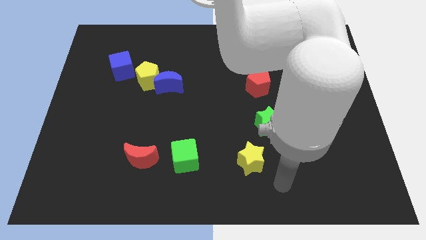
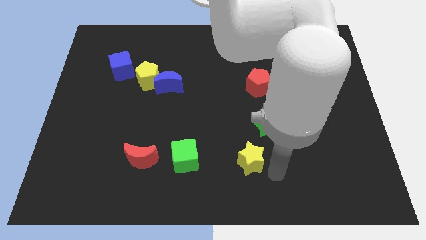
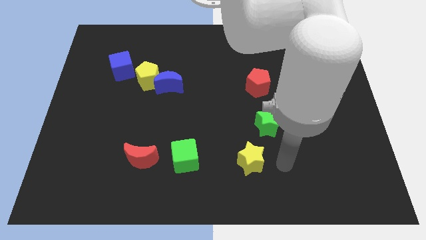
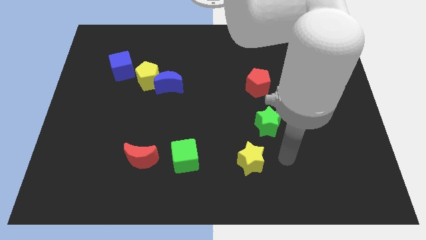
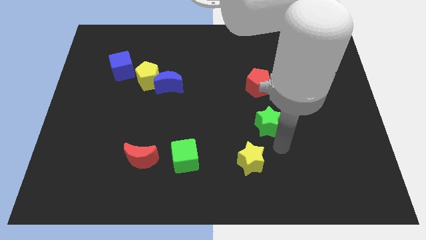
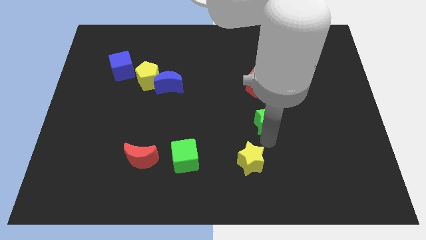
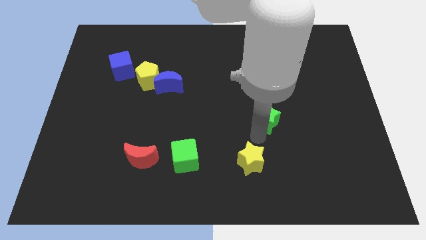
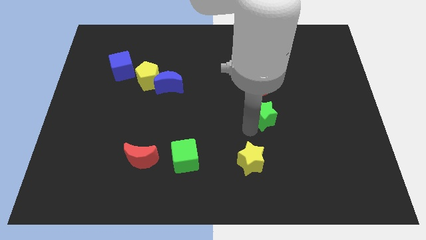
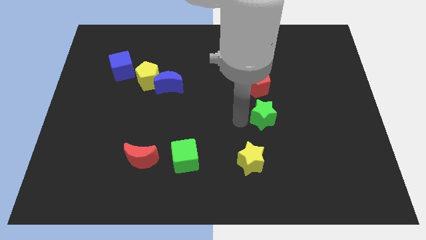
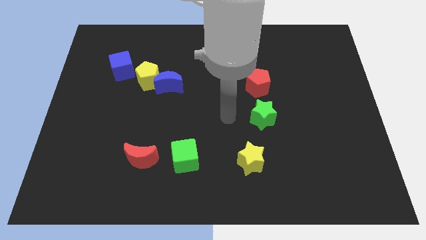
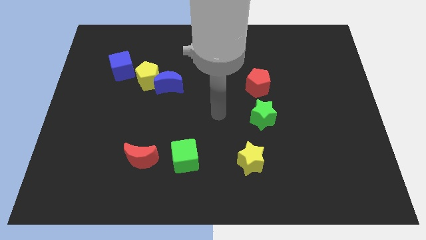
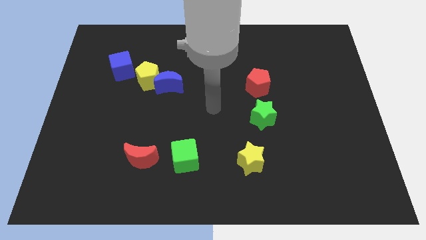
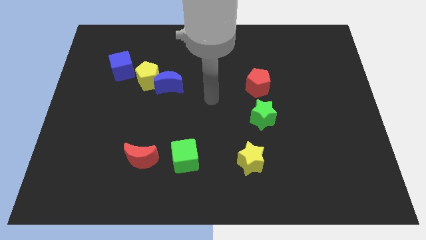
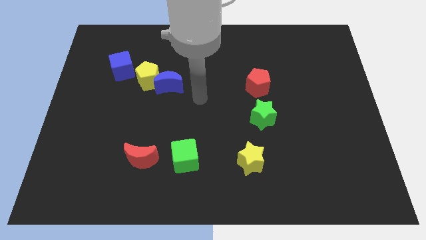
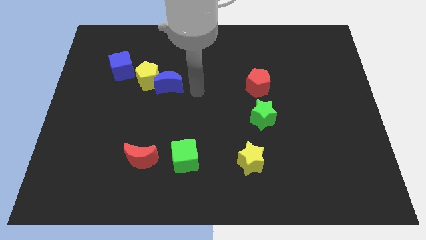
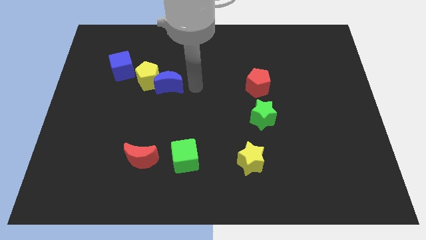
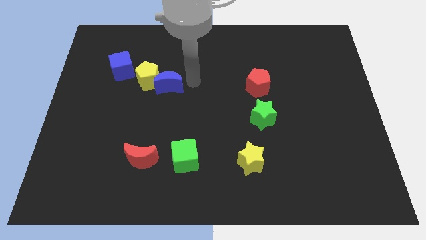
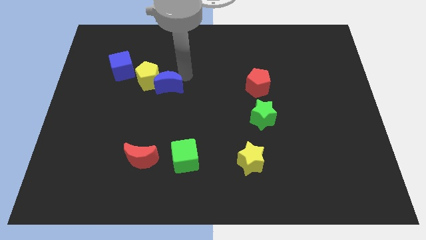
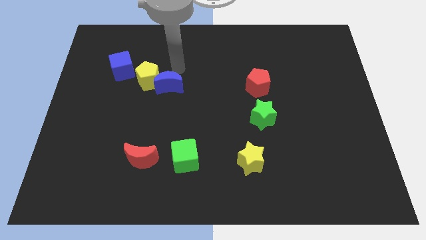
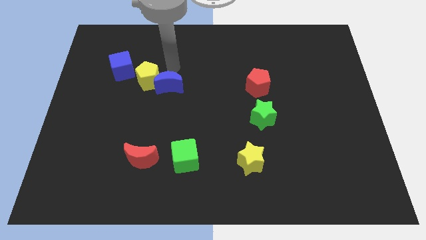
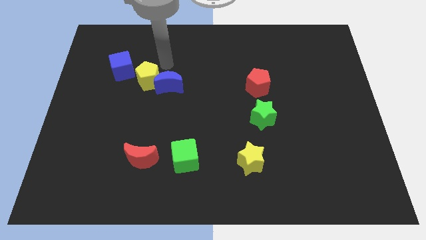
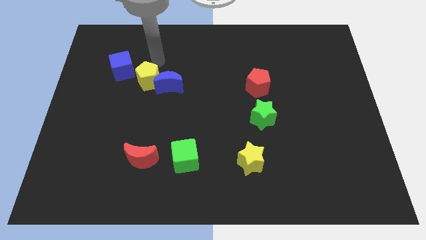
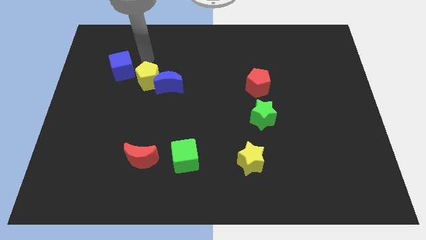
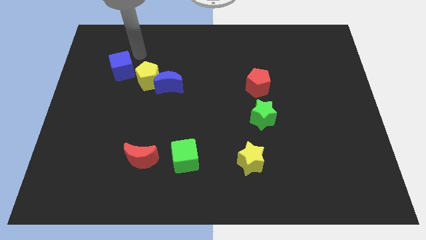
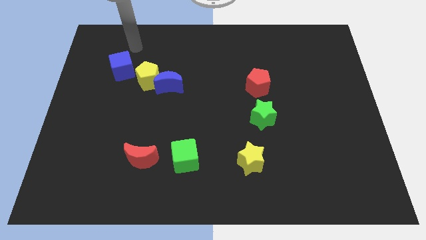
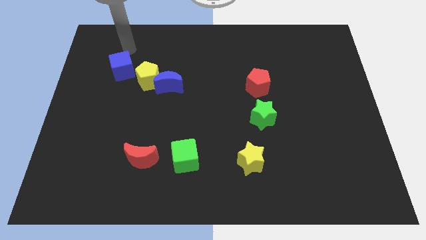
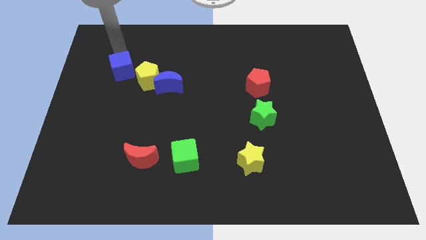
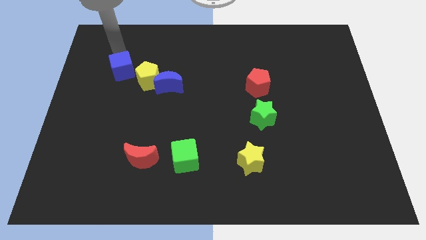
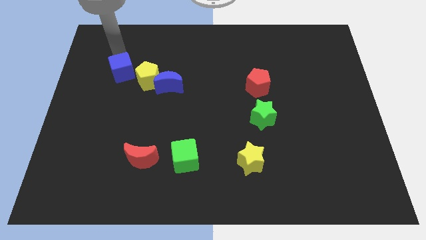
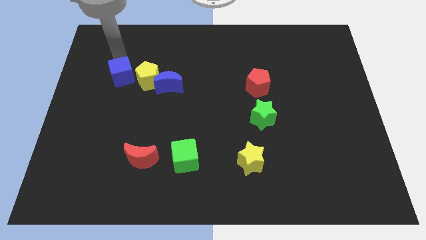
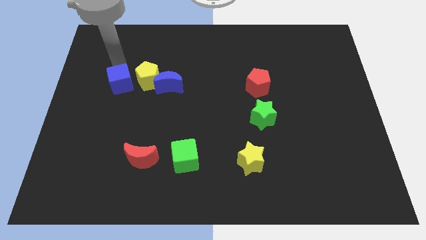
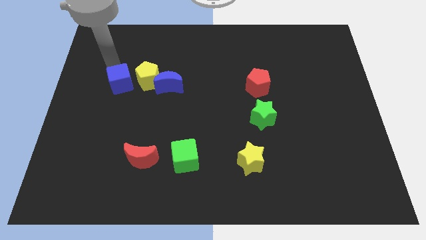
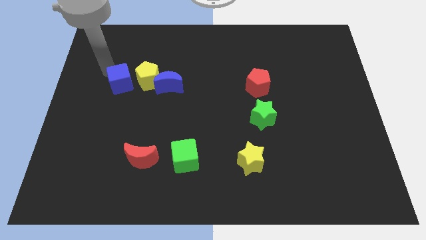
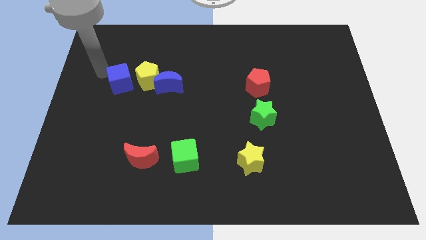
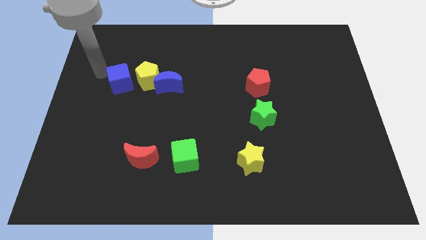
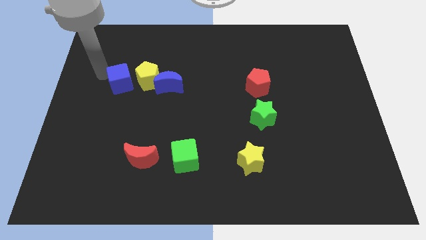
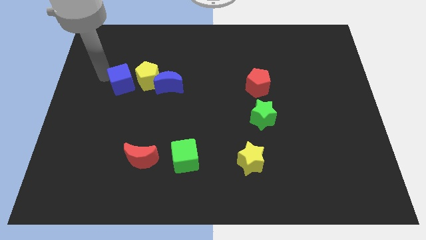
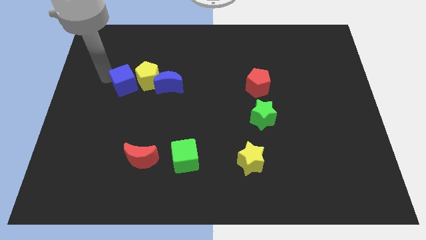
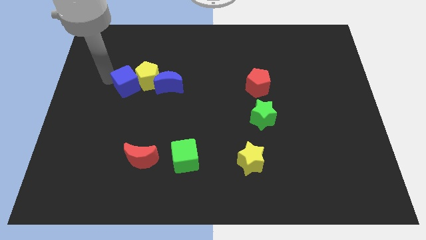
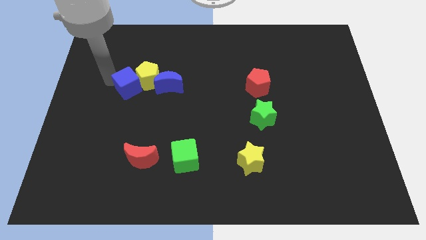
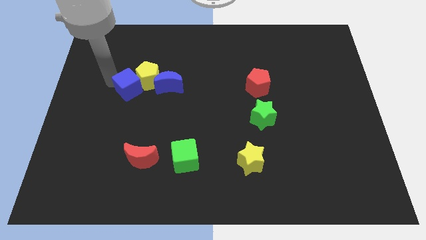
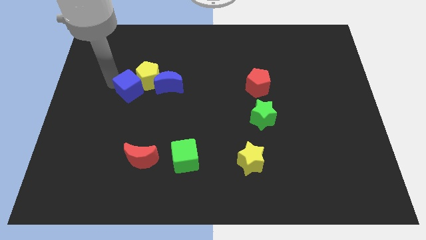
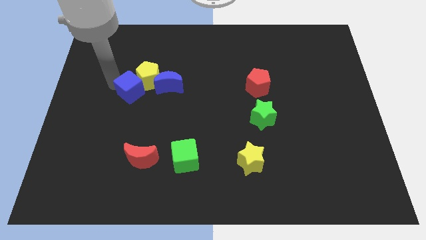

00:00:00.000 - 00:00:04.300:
push the blue cube down and then right a bit

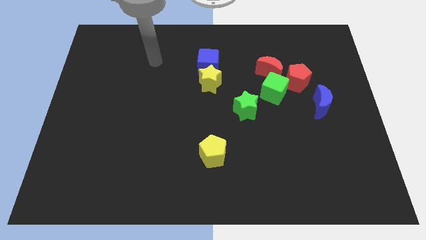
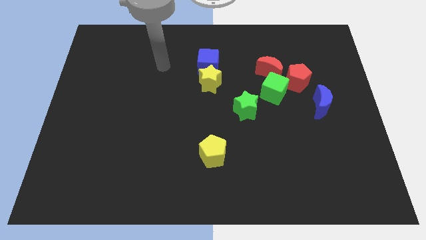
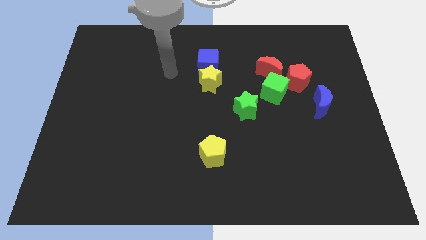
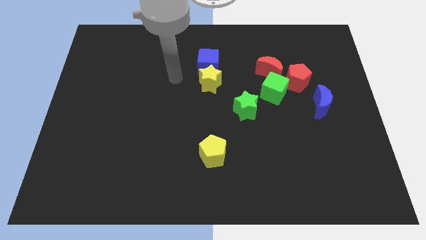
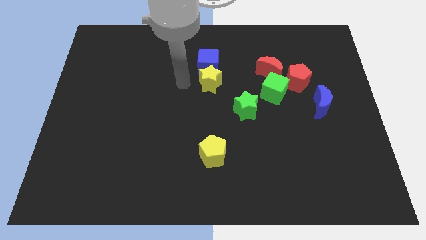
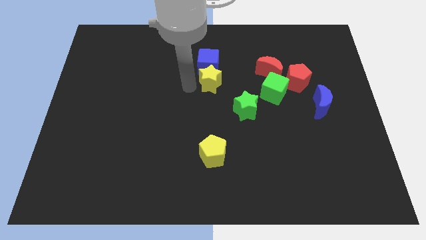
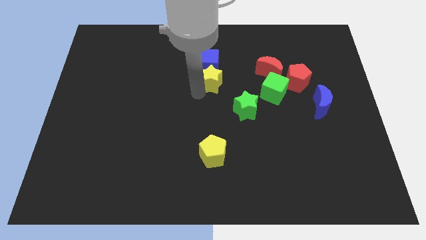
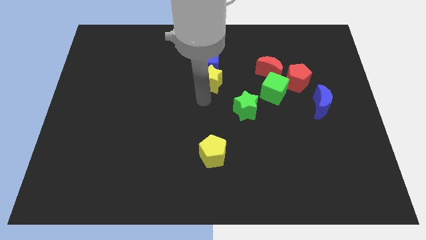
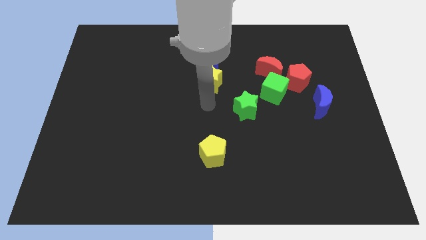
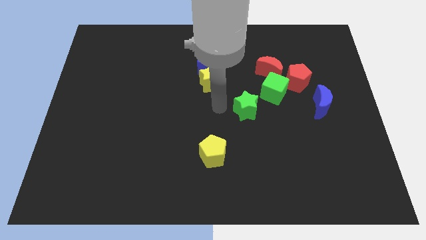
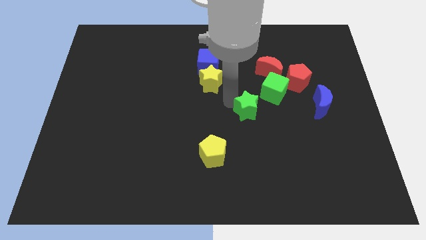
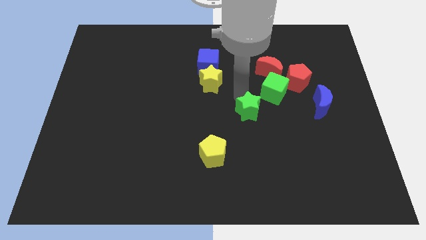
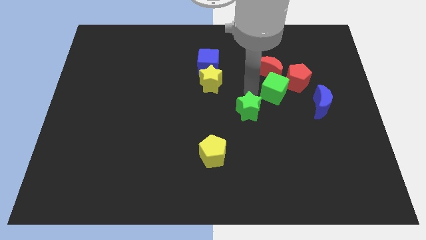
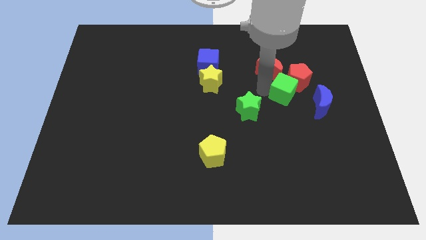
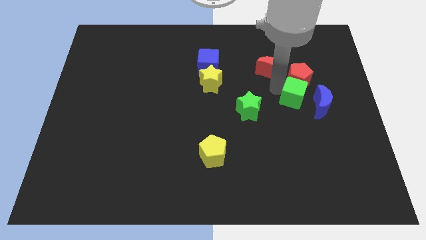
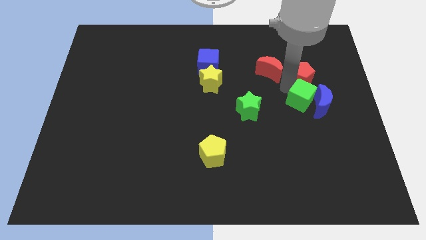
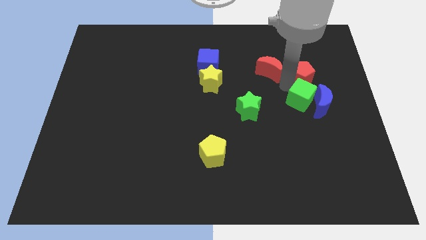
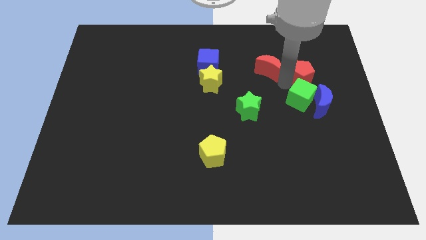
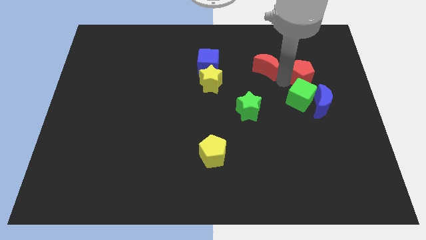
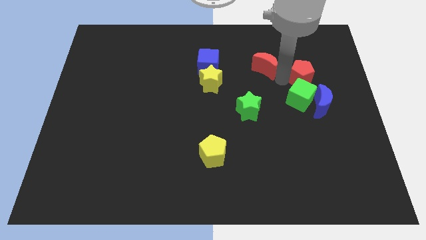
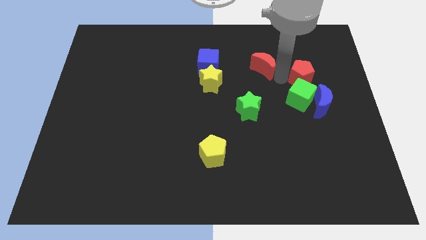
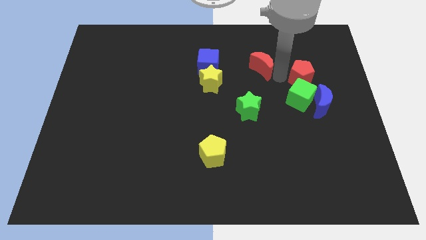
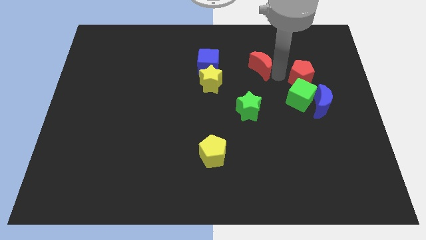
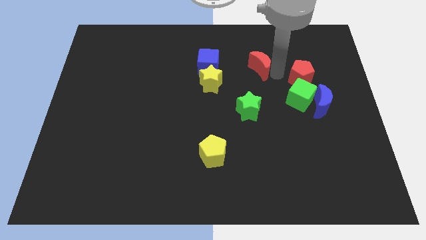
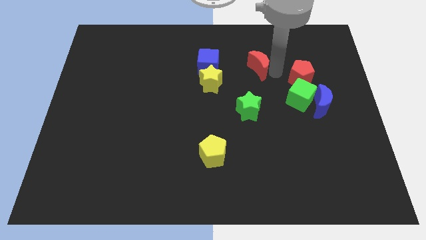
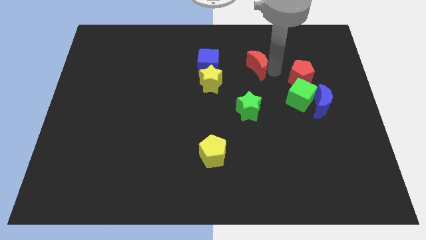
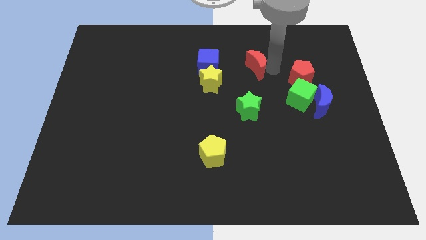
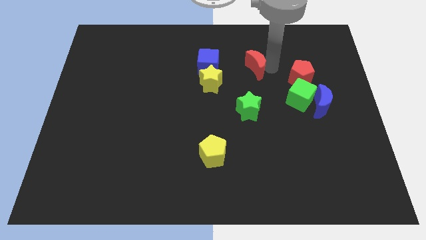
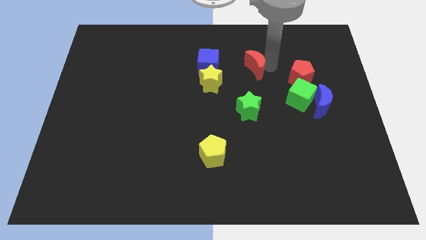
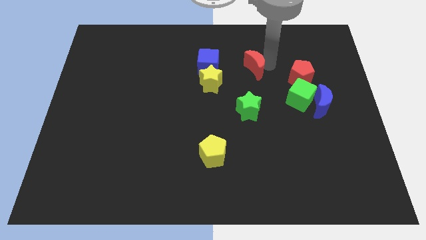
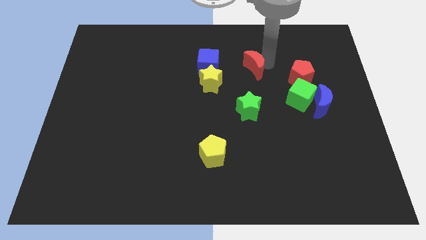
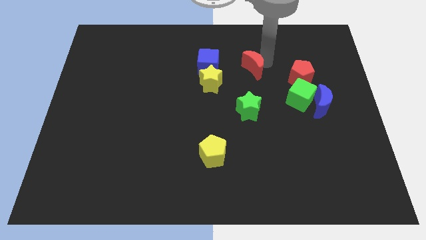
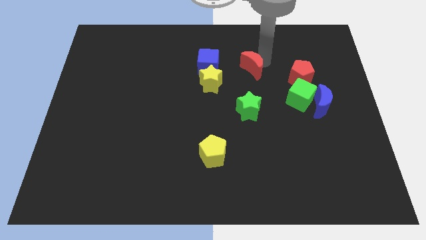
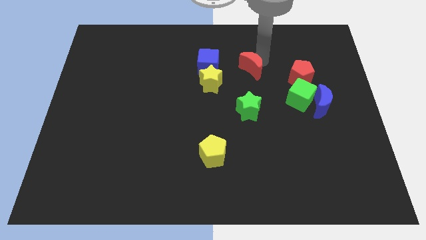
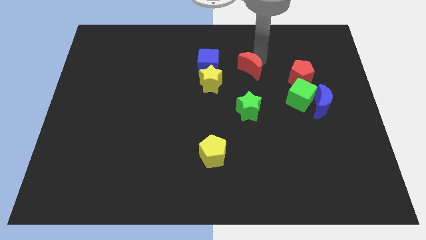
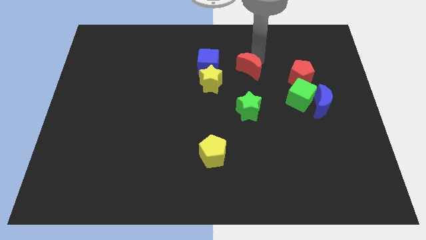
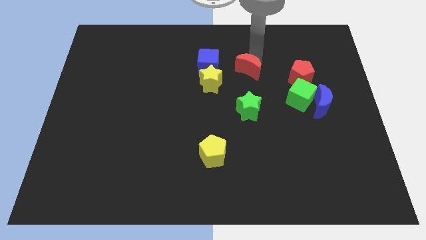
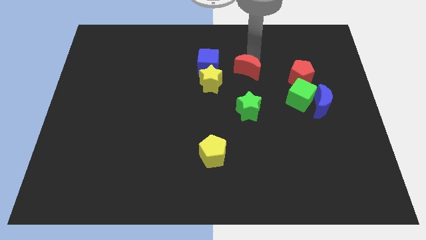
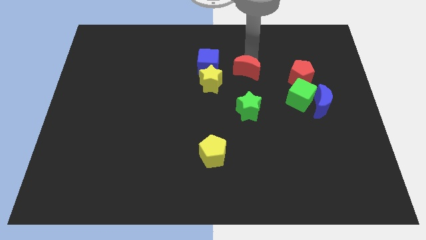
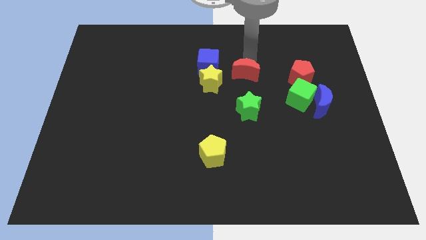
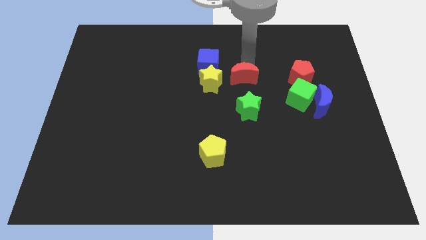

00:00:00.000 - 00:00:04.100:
slide the red moon slightly to the left
